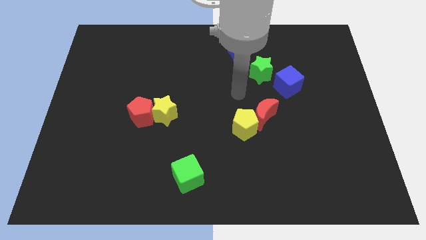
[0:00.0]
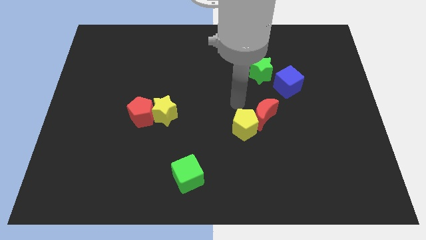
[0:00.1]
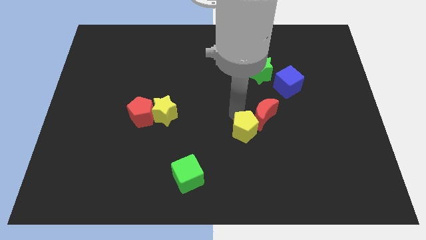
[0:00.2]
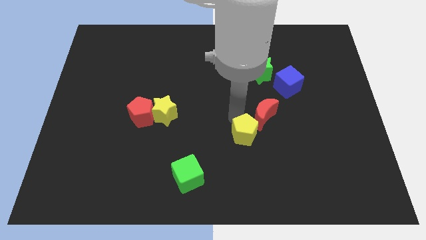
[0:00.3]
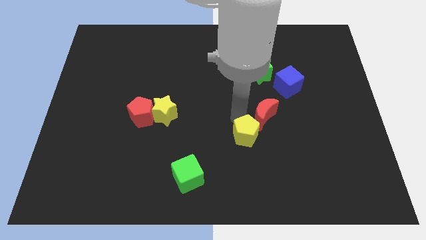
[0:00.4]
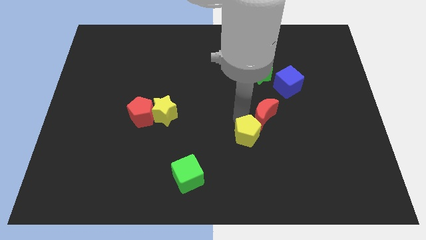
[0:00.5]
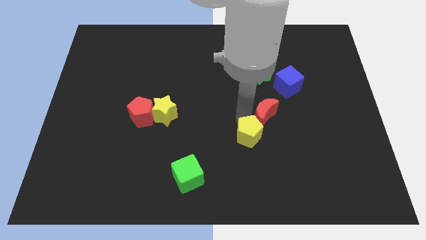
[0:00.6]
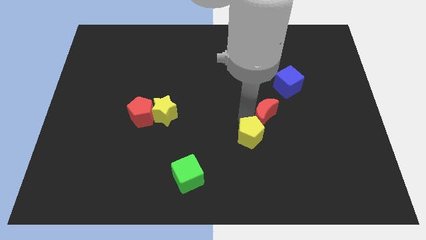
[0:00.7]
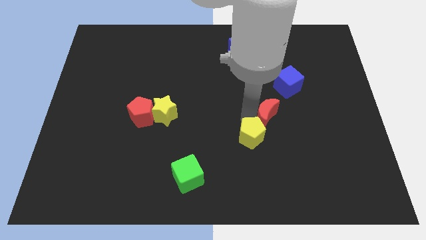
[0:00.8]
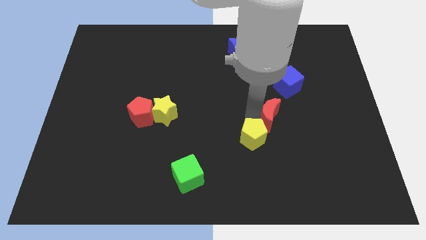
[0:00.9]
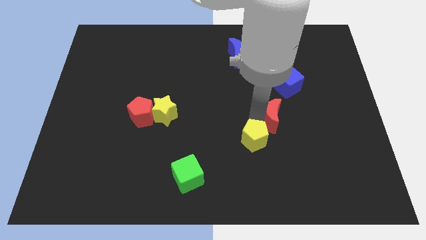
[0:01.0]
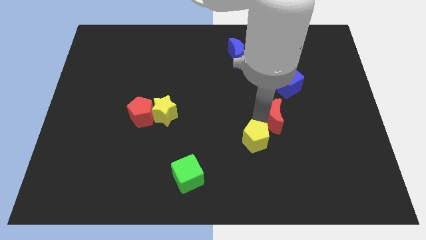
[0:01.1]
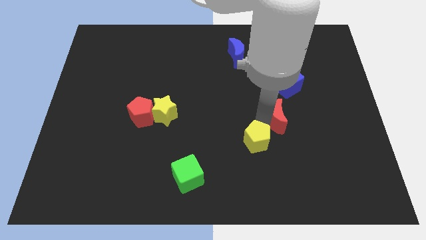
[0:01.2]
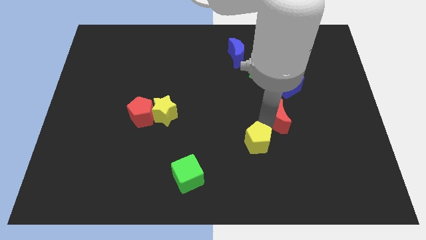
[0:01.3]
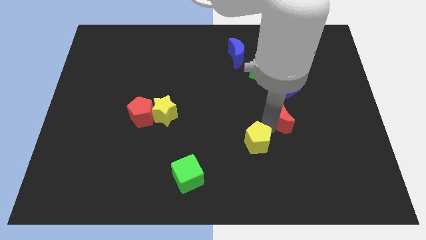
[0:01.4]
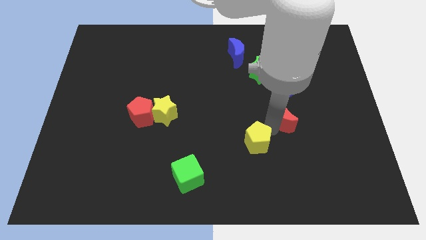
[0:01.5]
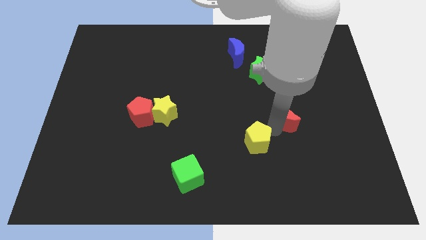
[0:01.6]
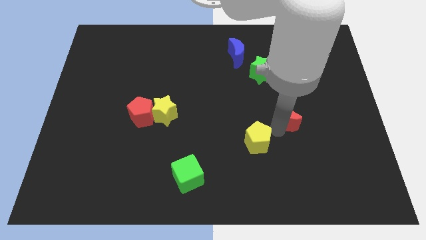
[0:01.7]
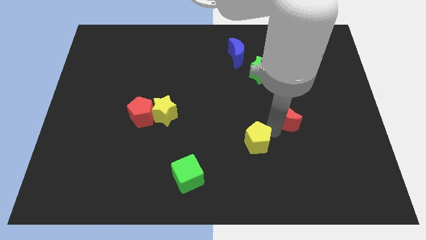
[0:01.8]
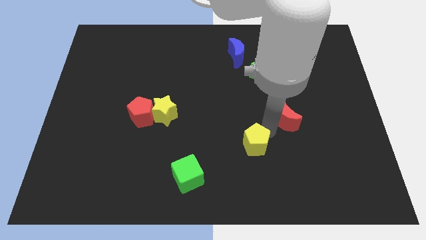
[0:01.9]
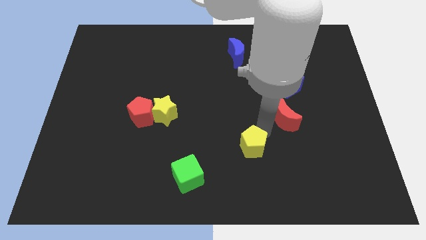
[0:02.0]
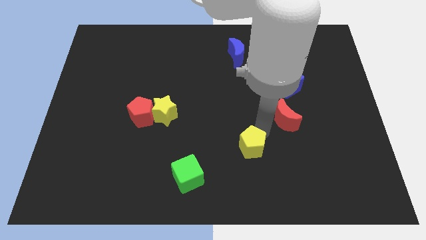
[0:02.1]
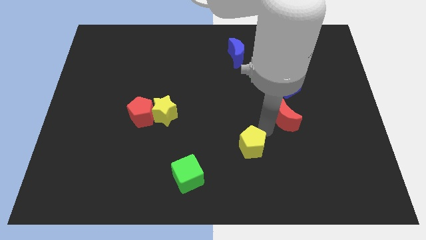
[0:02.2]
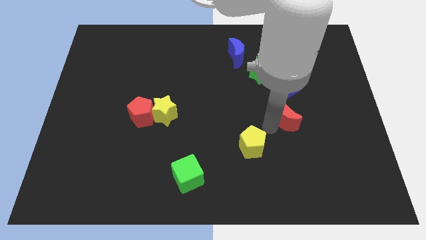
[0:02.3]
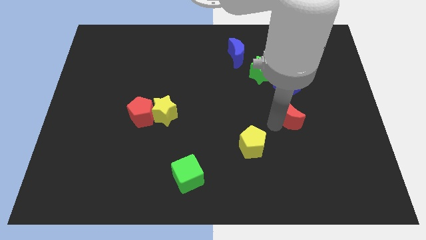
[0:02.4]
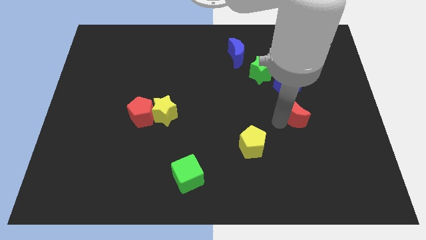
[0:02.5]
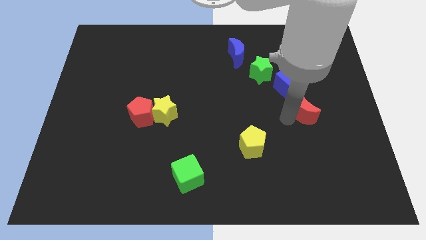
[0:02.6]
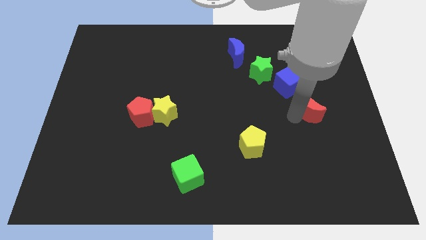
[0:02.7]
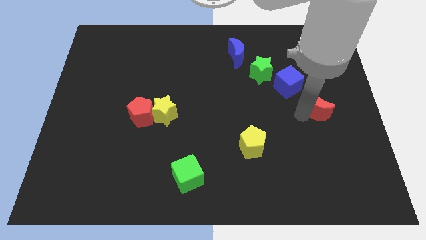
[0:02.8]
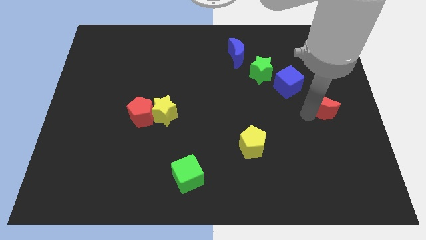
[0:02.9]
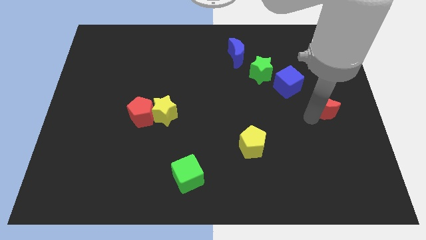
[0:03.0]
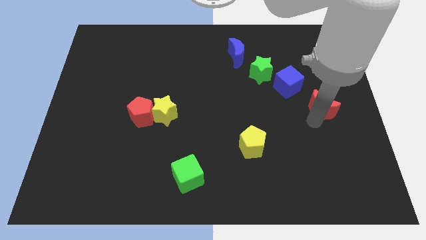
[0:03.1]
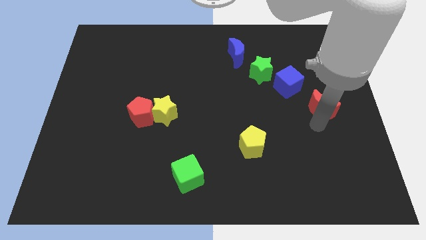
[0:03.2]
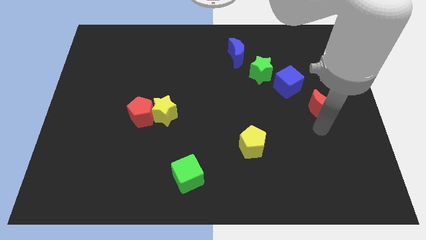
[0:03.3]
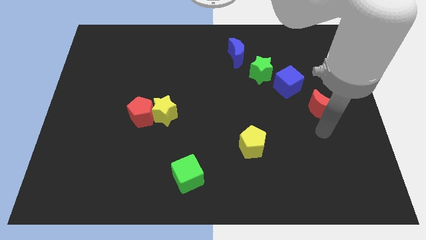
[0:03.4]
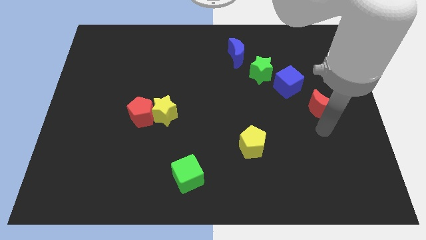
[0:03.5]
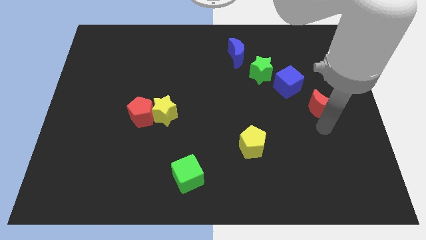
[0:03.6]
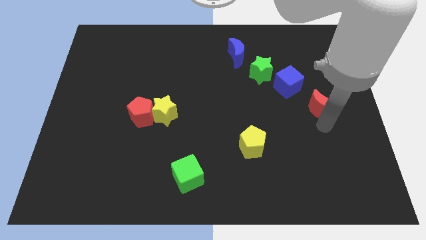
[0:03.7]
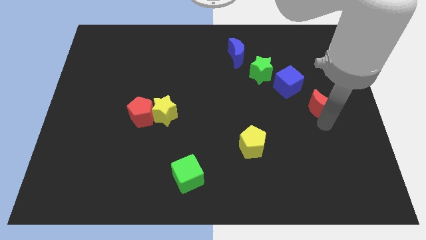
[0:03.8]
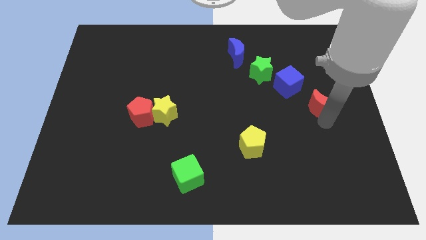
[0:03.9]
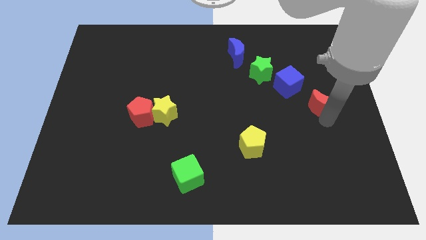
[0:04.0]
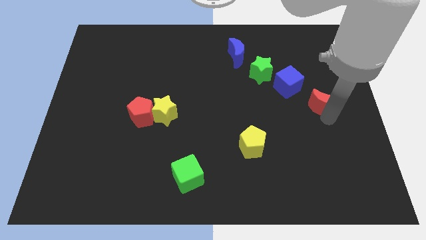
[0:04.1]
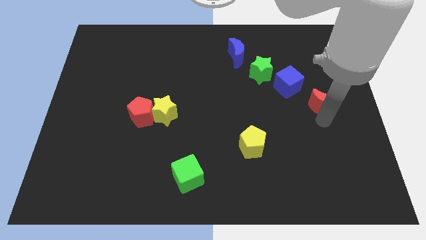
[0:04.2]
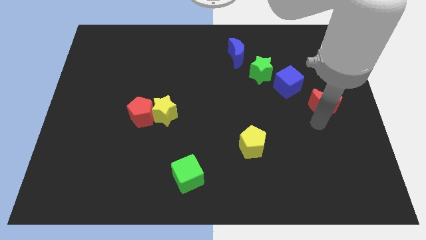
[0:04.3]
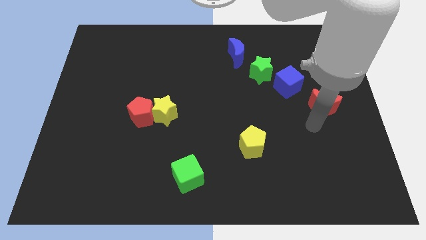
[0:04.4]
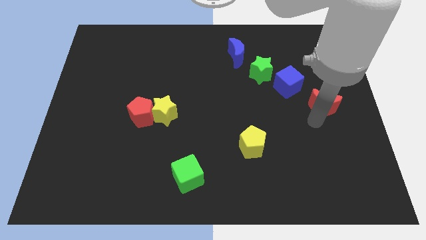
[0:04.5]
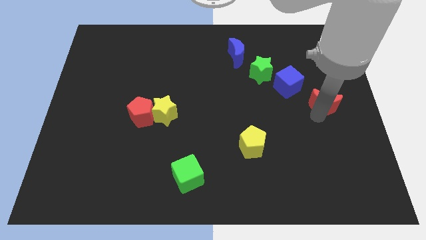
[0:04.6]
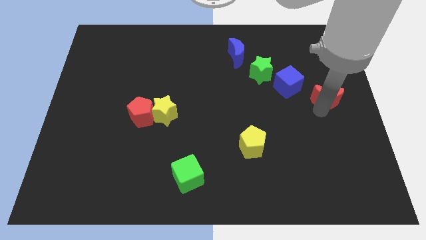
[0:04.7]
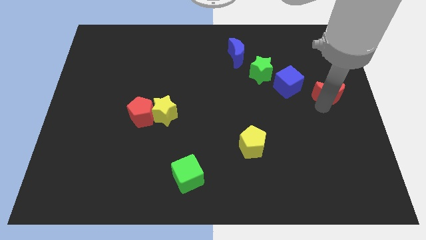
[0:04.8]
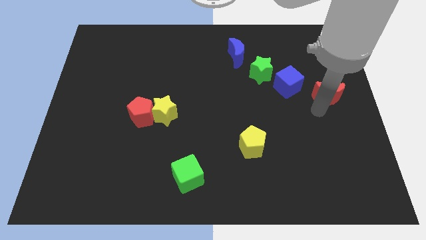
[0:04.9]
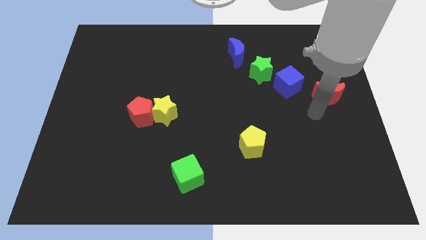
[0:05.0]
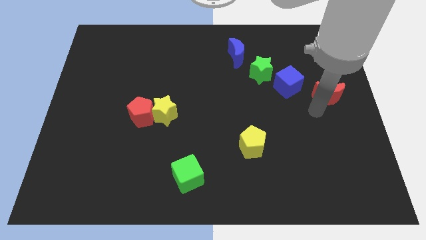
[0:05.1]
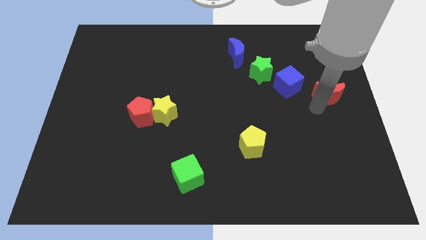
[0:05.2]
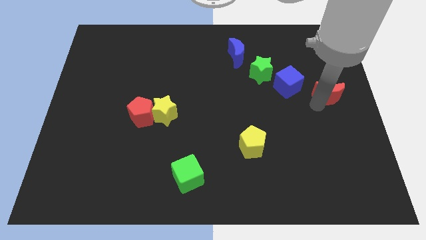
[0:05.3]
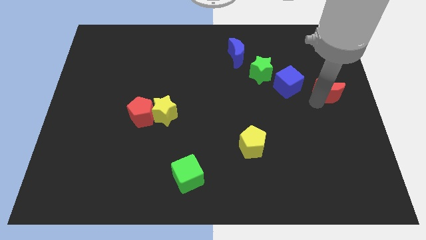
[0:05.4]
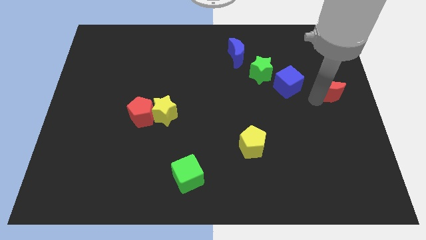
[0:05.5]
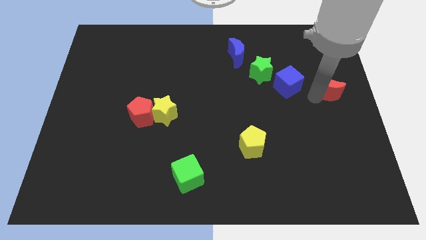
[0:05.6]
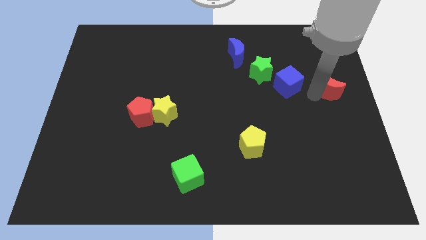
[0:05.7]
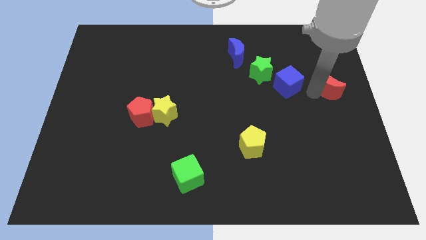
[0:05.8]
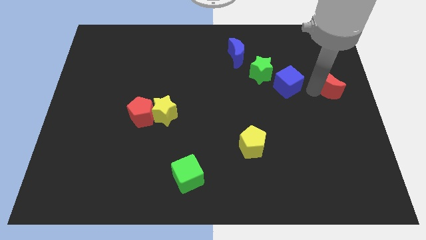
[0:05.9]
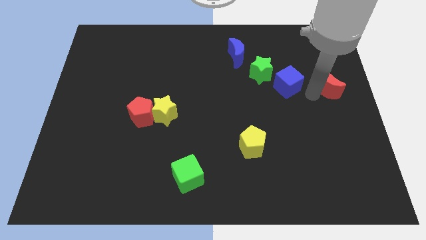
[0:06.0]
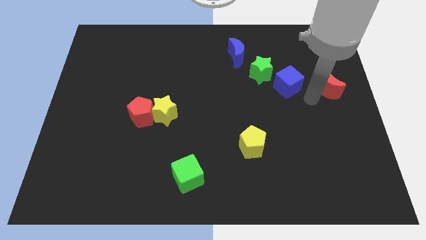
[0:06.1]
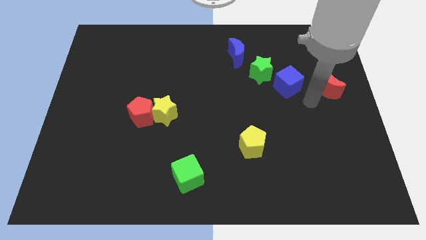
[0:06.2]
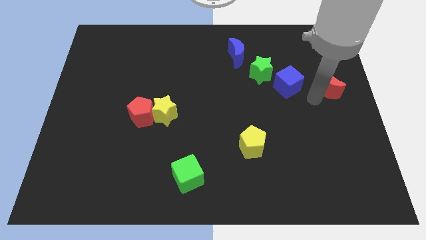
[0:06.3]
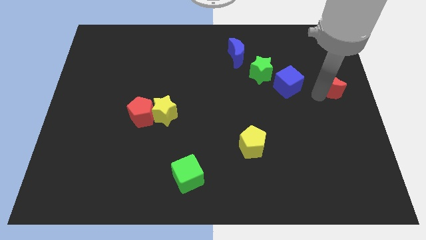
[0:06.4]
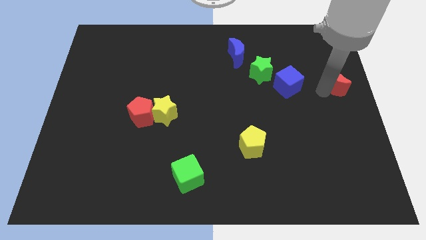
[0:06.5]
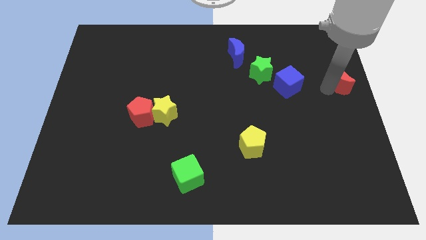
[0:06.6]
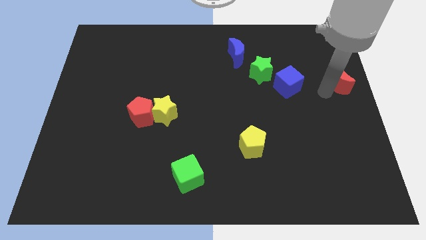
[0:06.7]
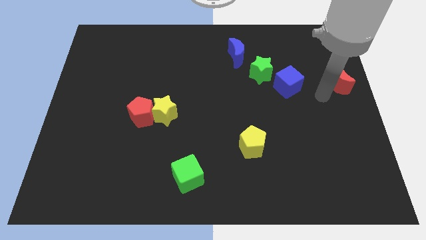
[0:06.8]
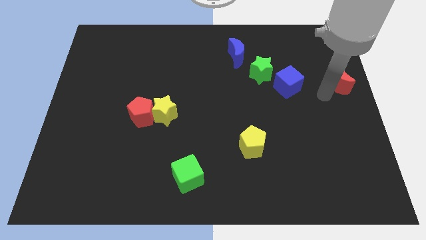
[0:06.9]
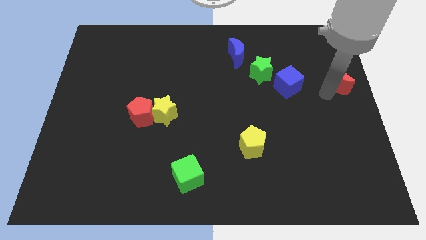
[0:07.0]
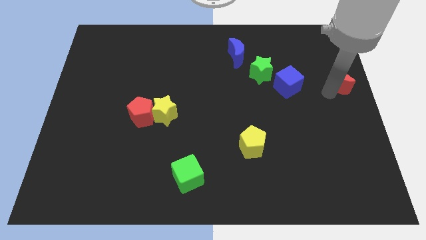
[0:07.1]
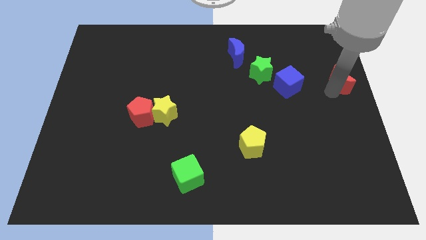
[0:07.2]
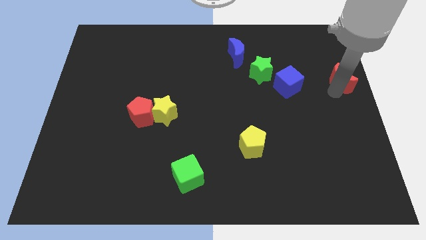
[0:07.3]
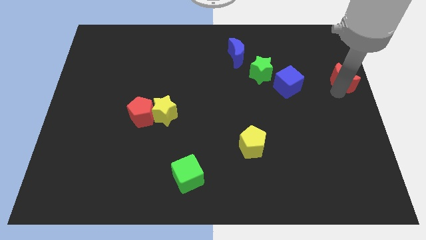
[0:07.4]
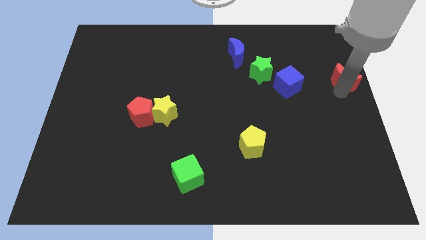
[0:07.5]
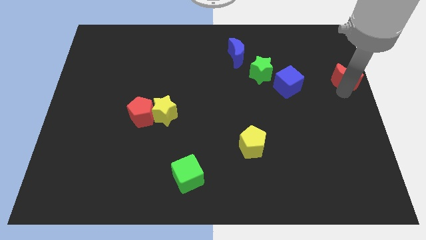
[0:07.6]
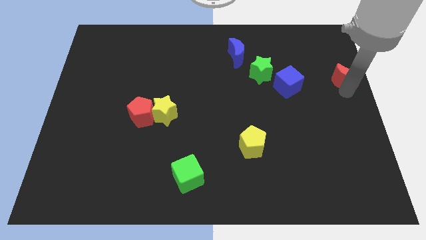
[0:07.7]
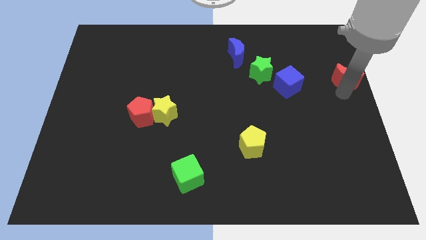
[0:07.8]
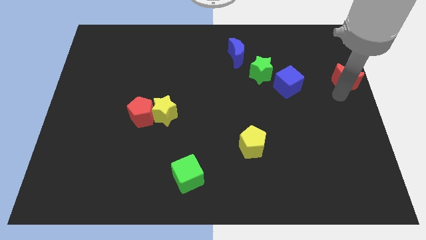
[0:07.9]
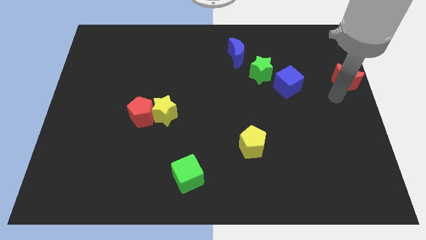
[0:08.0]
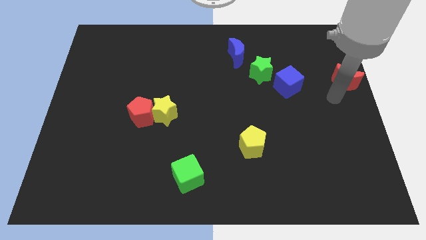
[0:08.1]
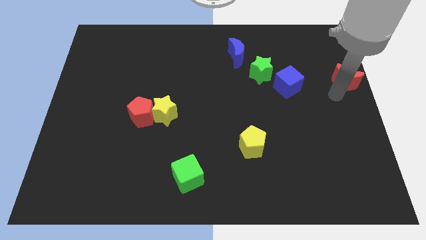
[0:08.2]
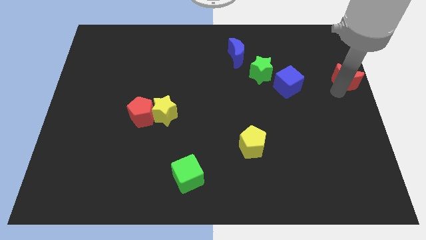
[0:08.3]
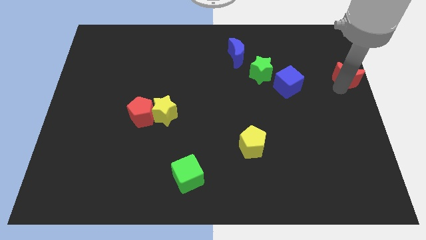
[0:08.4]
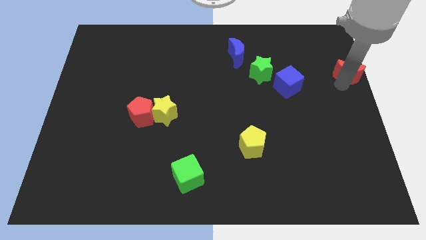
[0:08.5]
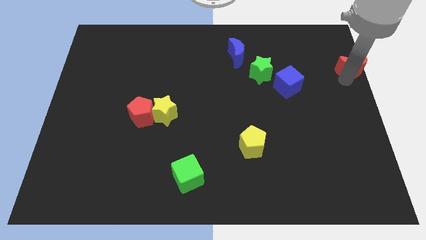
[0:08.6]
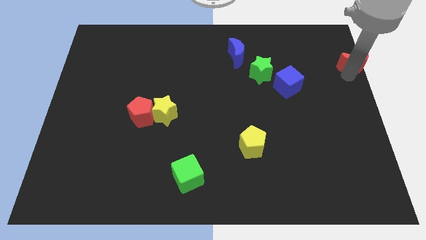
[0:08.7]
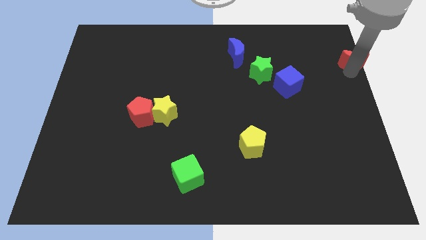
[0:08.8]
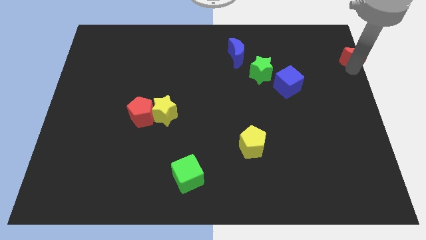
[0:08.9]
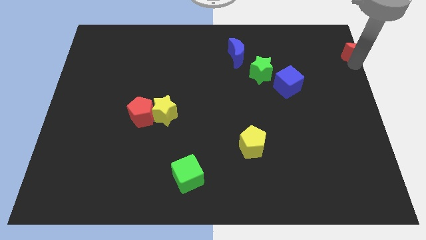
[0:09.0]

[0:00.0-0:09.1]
push the red moon to the top right
